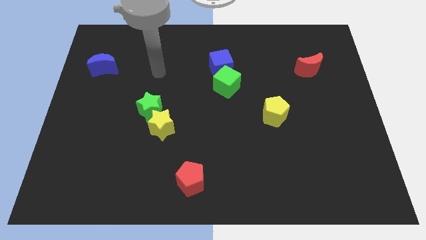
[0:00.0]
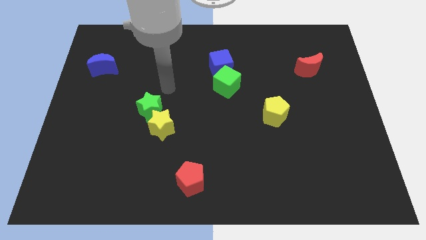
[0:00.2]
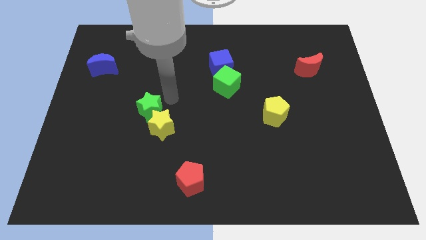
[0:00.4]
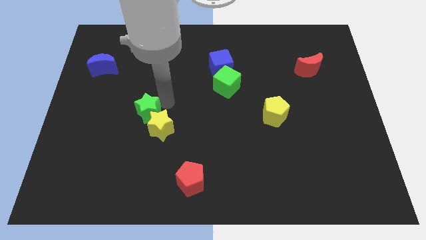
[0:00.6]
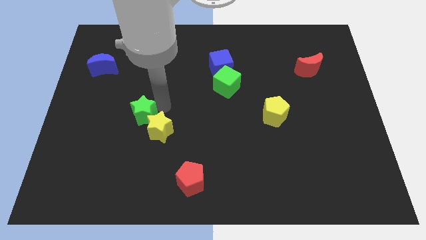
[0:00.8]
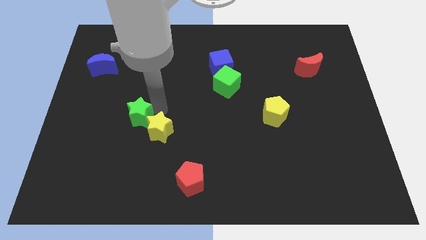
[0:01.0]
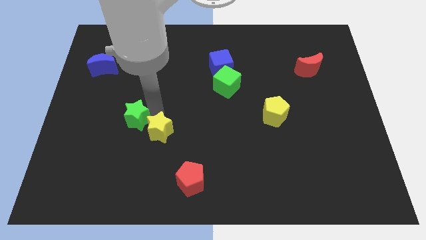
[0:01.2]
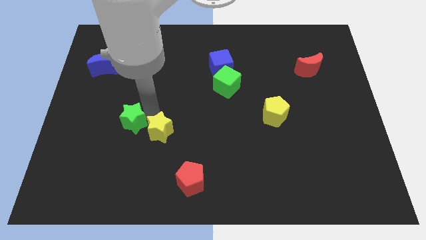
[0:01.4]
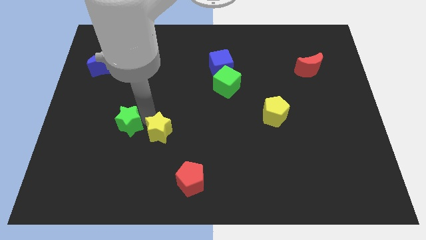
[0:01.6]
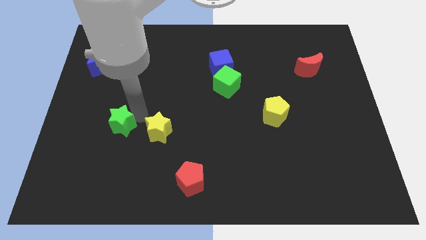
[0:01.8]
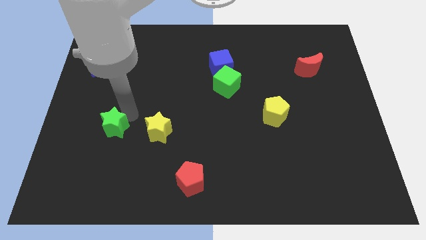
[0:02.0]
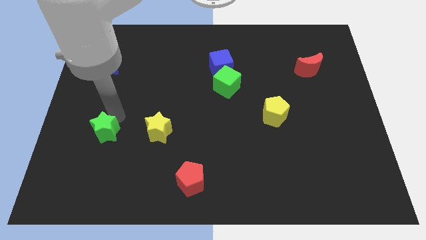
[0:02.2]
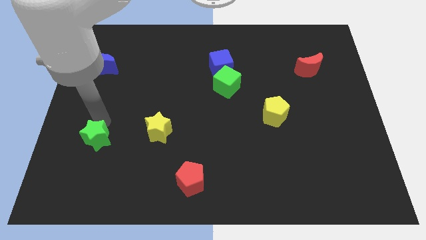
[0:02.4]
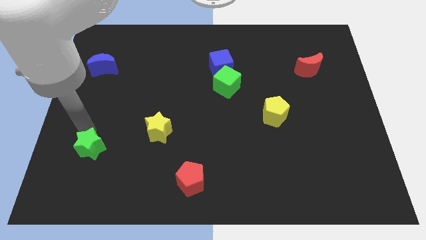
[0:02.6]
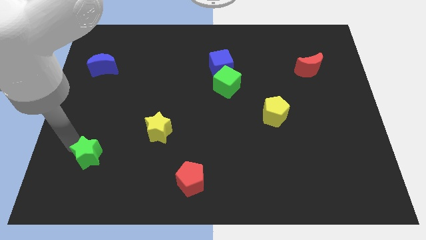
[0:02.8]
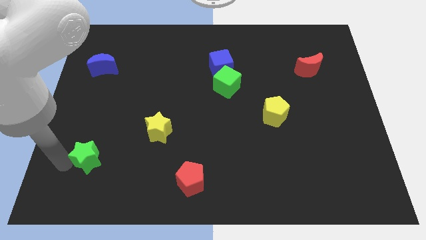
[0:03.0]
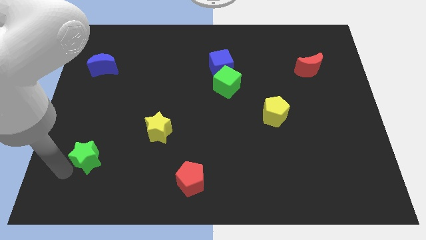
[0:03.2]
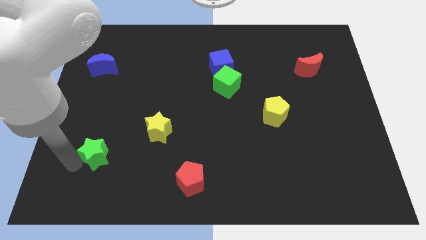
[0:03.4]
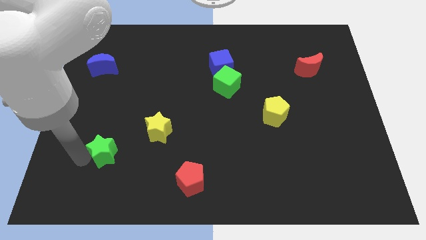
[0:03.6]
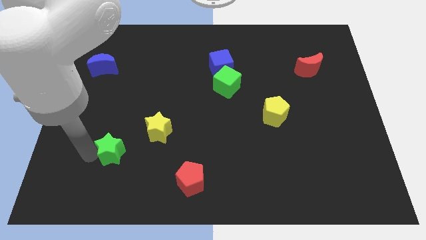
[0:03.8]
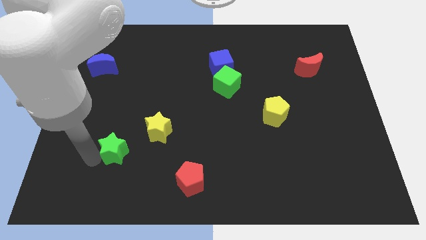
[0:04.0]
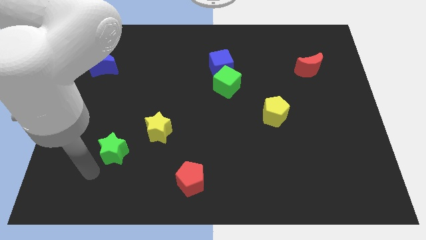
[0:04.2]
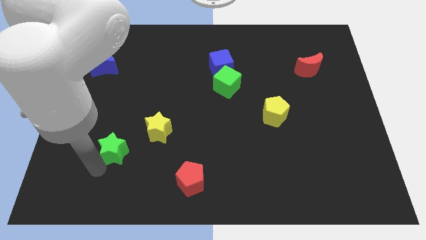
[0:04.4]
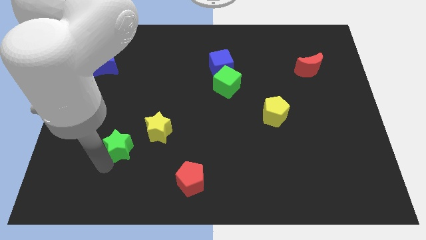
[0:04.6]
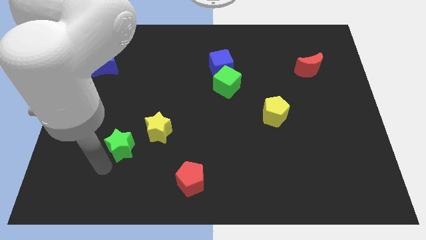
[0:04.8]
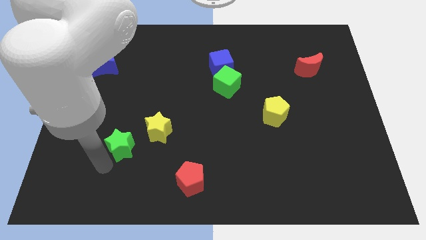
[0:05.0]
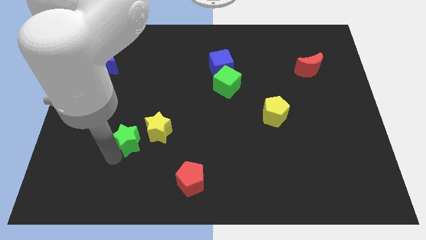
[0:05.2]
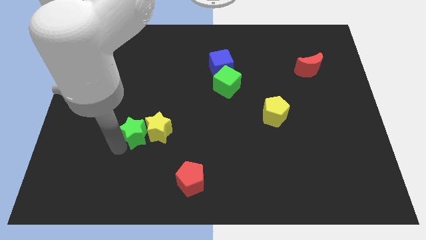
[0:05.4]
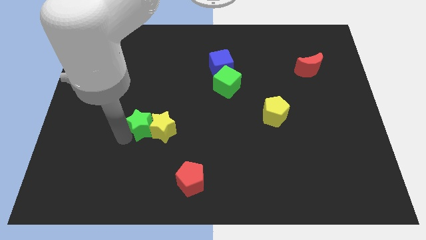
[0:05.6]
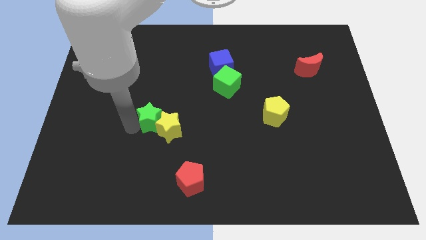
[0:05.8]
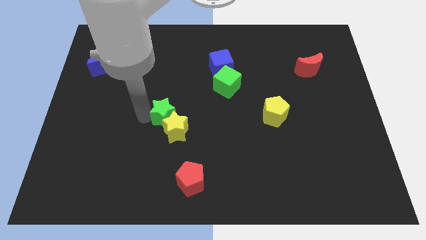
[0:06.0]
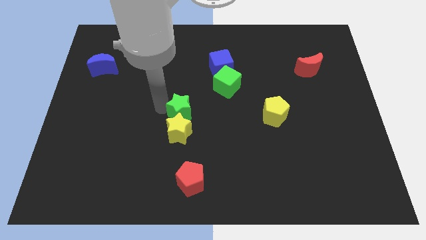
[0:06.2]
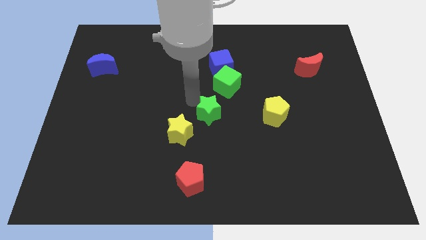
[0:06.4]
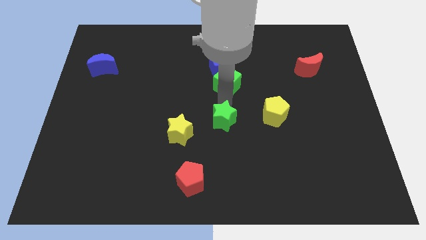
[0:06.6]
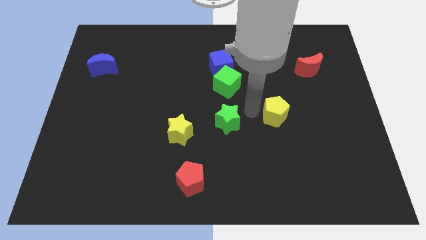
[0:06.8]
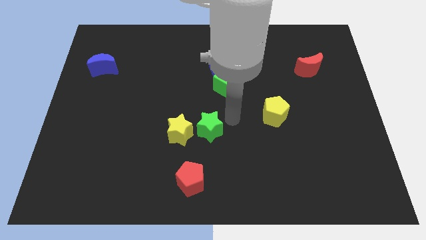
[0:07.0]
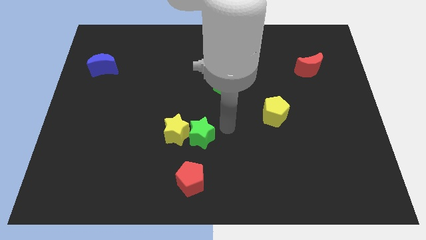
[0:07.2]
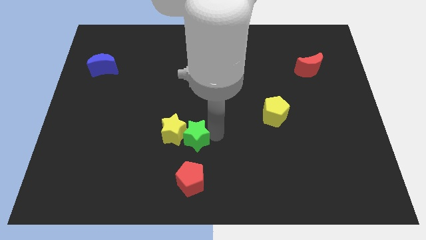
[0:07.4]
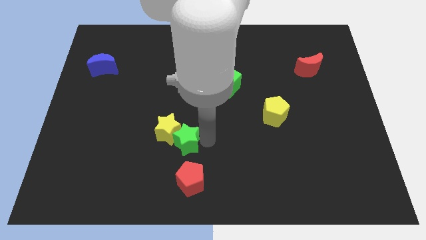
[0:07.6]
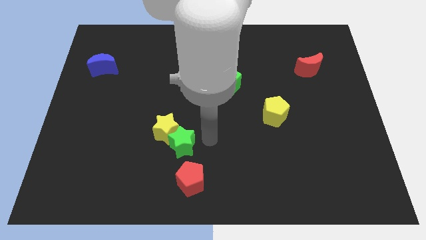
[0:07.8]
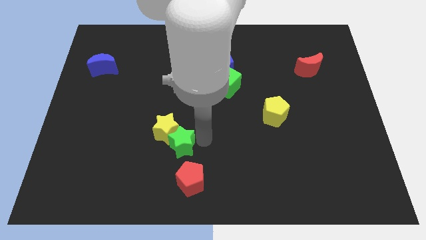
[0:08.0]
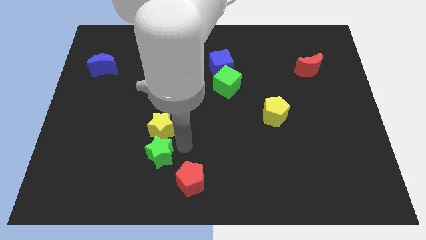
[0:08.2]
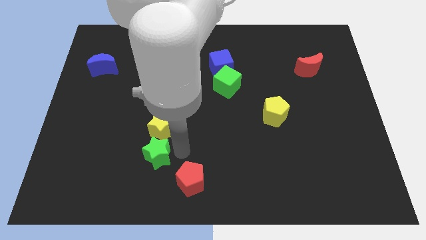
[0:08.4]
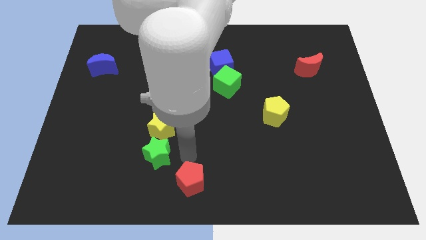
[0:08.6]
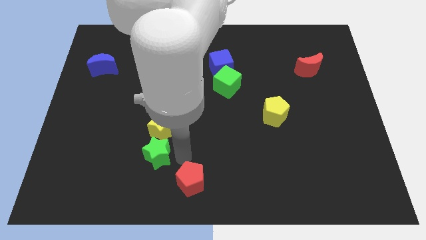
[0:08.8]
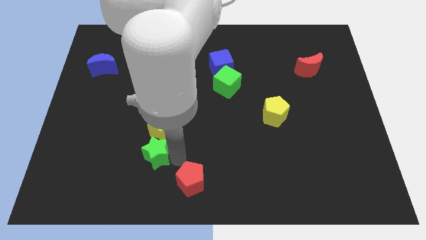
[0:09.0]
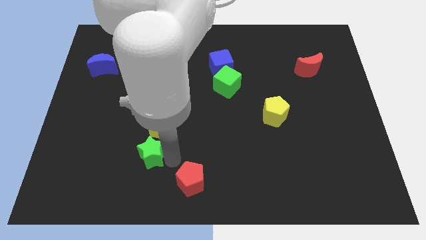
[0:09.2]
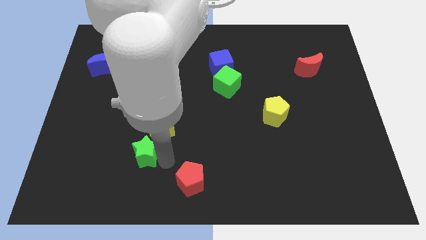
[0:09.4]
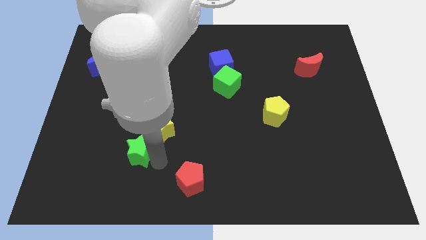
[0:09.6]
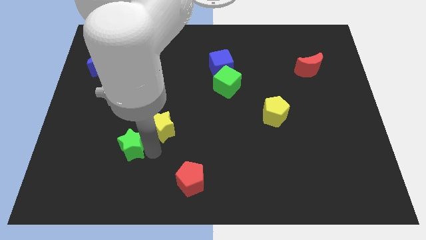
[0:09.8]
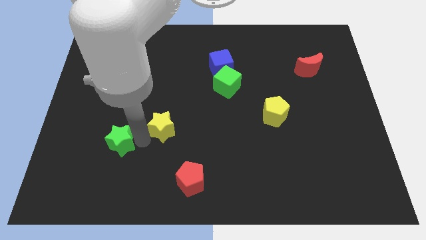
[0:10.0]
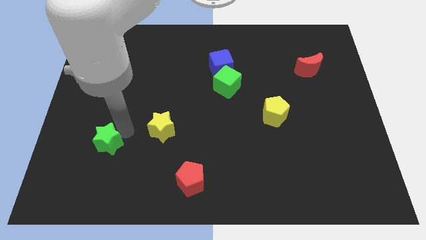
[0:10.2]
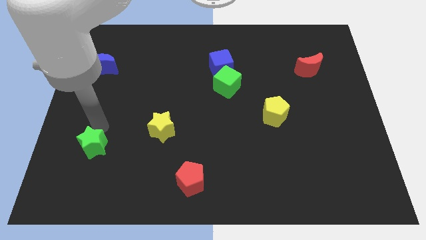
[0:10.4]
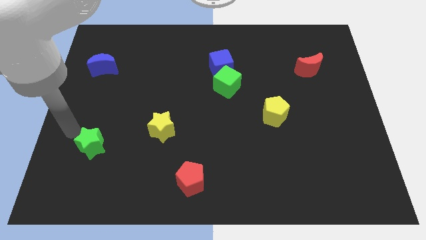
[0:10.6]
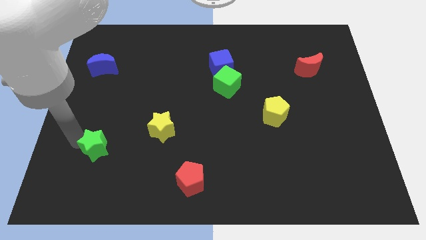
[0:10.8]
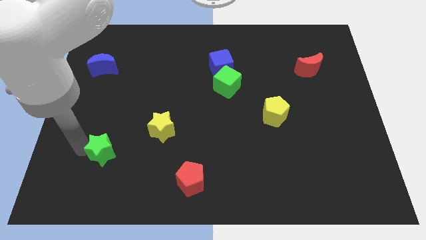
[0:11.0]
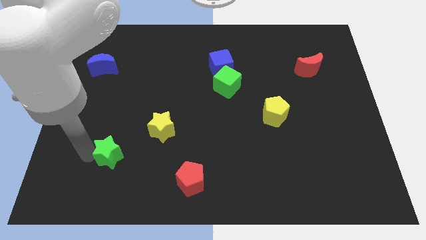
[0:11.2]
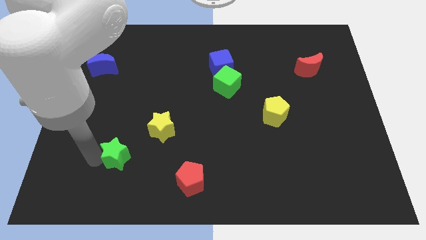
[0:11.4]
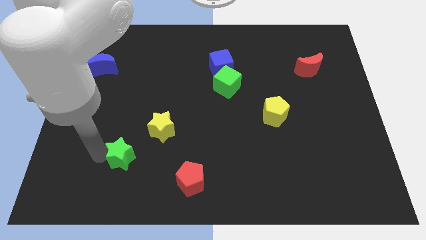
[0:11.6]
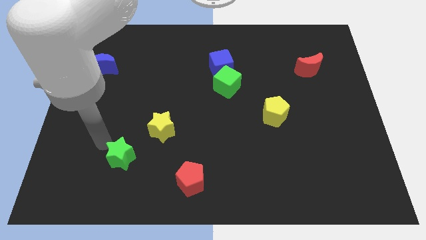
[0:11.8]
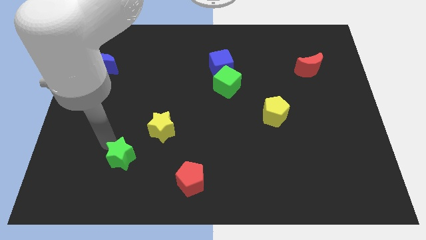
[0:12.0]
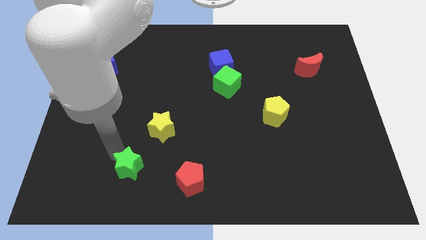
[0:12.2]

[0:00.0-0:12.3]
move the green star to the left of the red pentagon

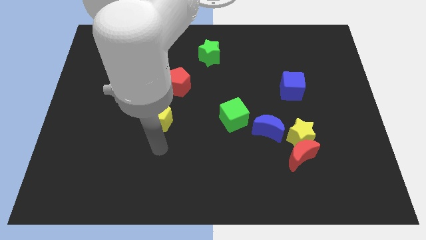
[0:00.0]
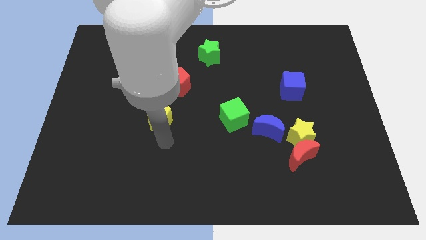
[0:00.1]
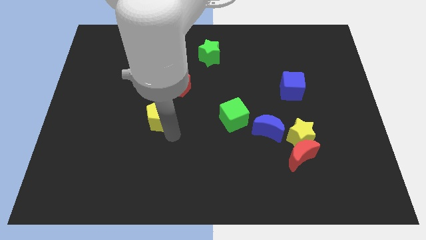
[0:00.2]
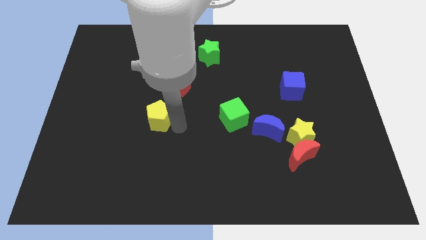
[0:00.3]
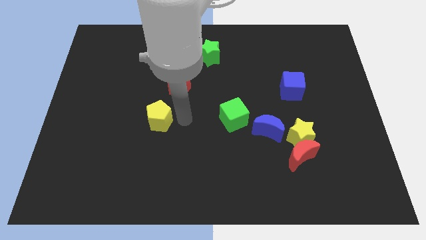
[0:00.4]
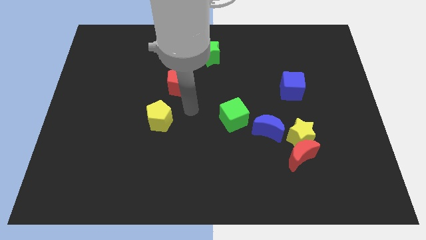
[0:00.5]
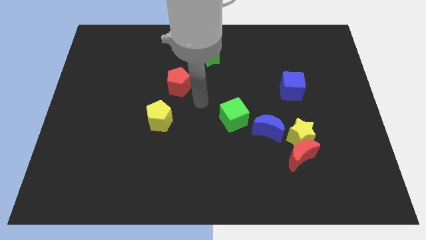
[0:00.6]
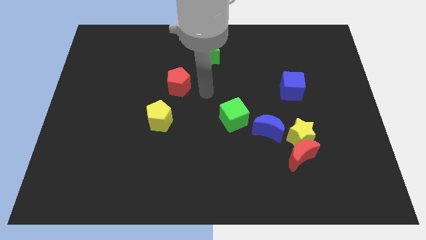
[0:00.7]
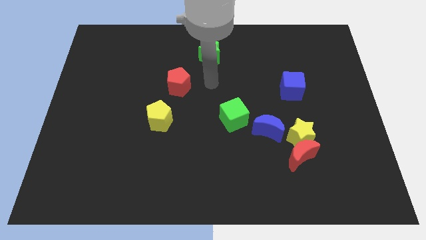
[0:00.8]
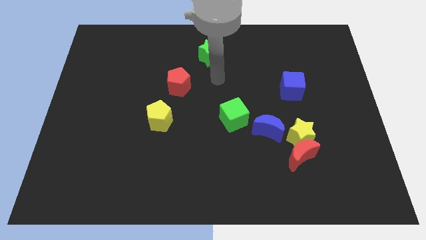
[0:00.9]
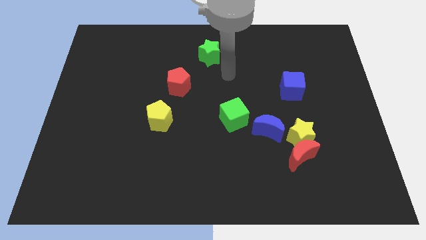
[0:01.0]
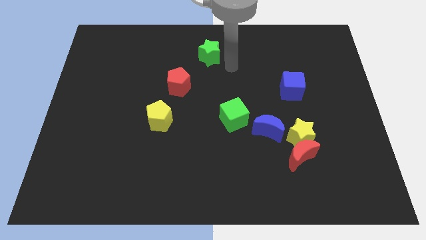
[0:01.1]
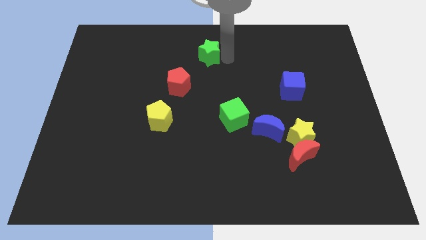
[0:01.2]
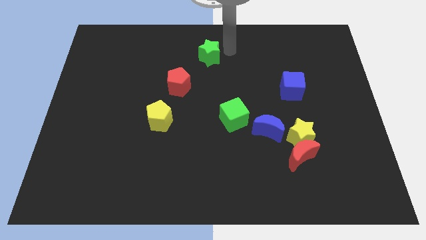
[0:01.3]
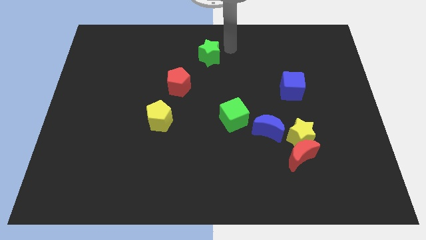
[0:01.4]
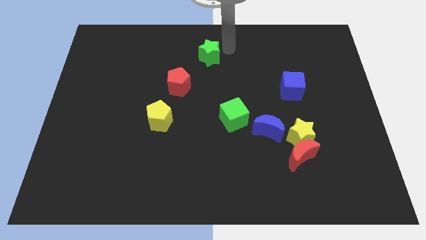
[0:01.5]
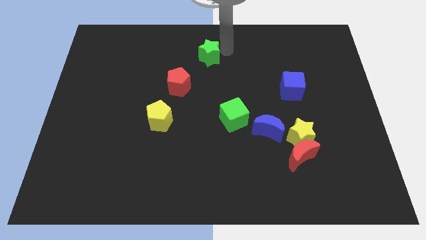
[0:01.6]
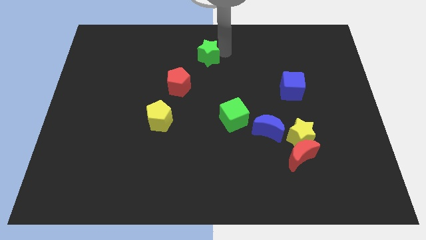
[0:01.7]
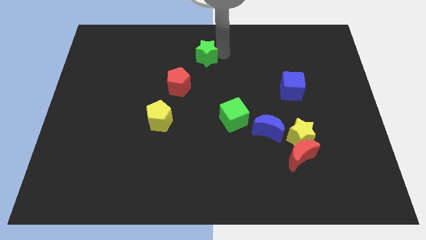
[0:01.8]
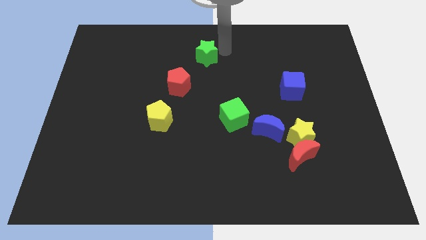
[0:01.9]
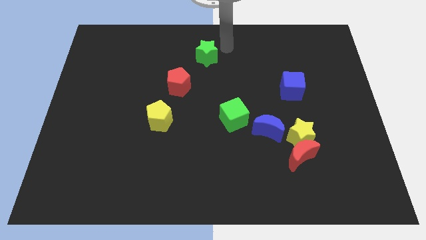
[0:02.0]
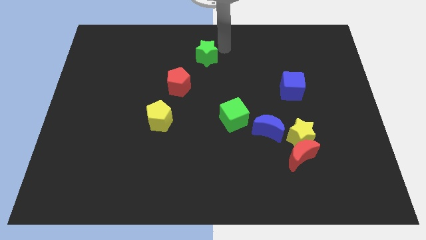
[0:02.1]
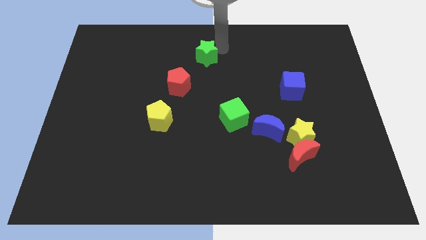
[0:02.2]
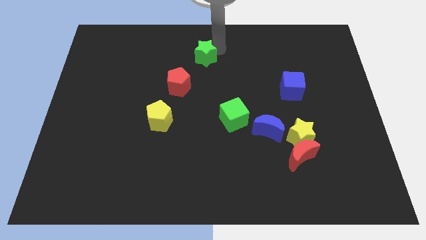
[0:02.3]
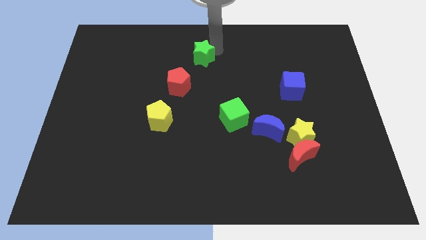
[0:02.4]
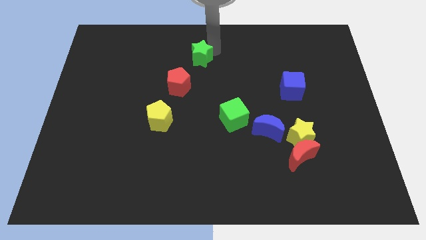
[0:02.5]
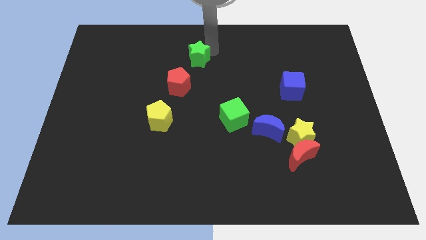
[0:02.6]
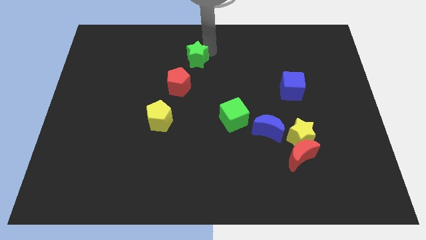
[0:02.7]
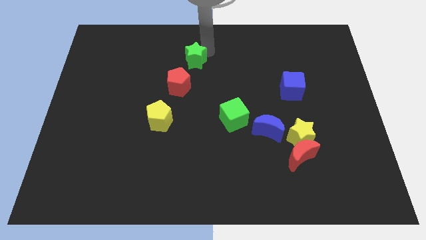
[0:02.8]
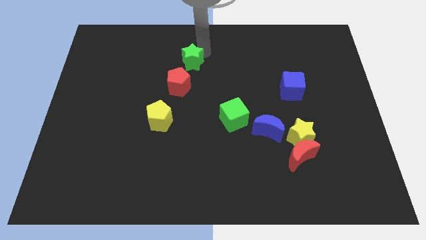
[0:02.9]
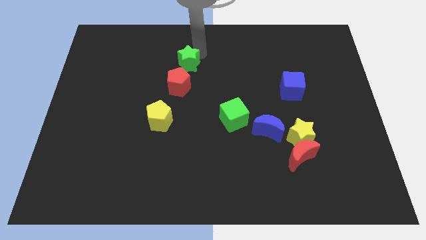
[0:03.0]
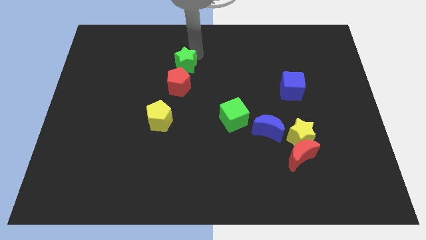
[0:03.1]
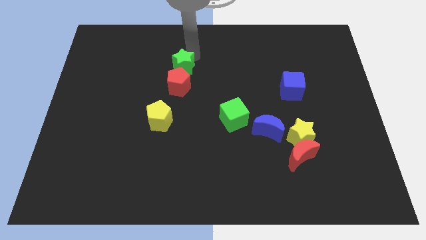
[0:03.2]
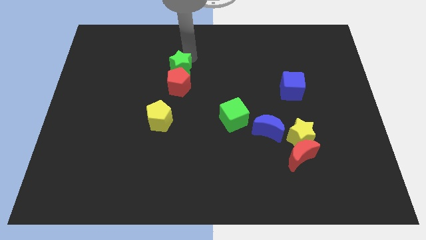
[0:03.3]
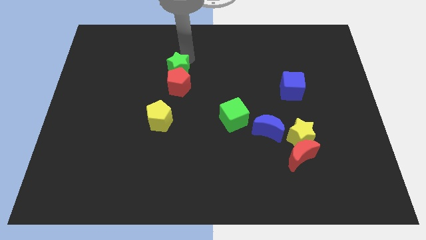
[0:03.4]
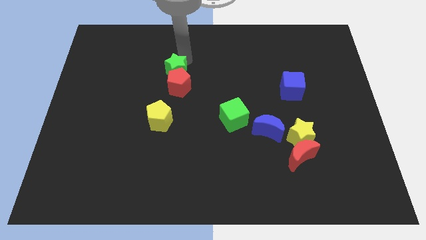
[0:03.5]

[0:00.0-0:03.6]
push the green star to the top of the yellow pentagon
